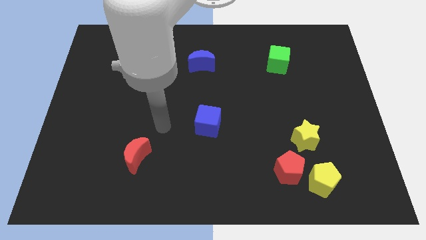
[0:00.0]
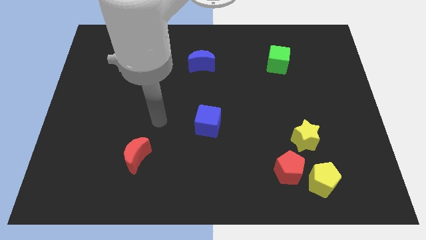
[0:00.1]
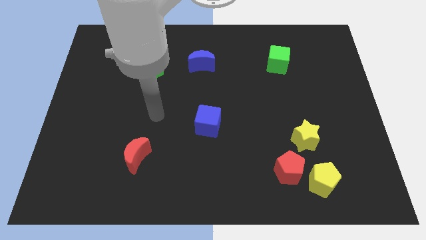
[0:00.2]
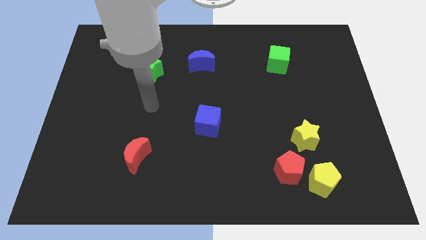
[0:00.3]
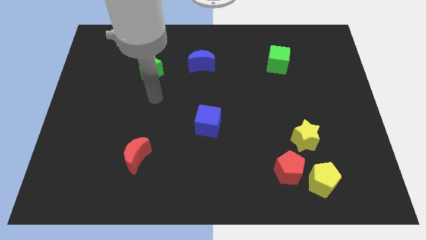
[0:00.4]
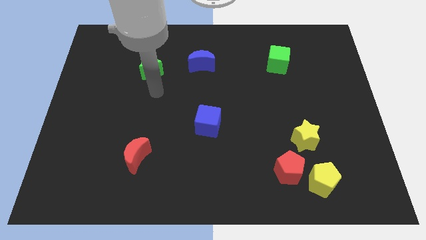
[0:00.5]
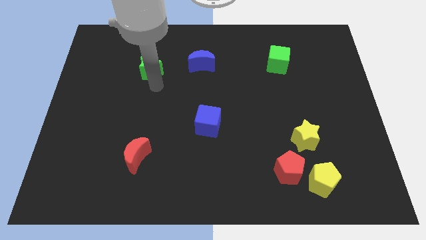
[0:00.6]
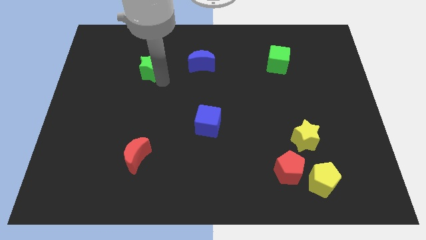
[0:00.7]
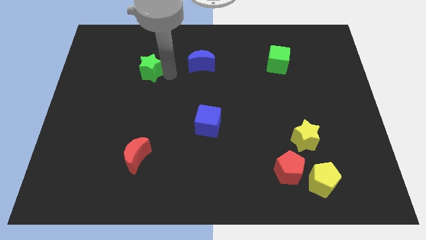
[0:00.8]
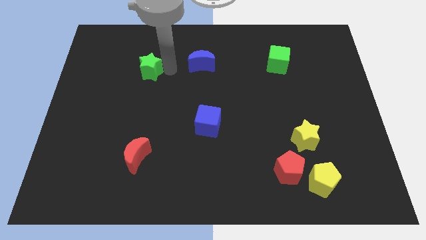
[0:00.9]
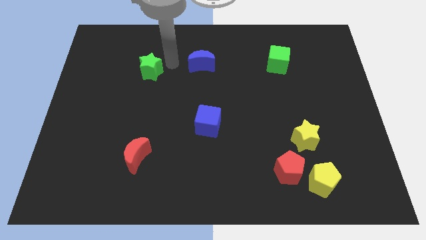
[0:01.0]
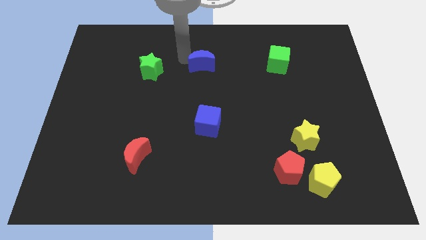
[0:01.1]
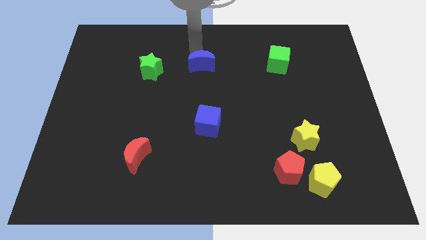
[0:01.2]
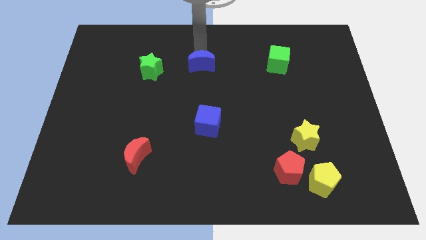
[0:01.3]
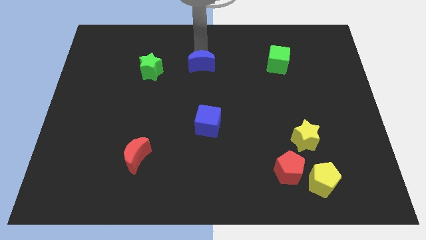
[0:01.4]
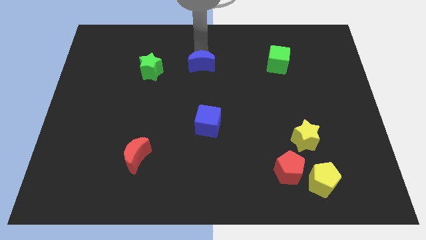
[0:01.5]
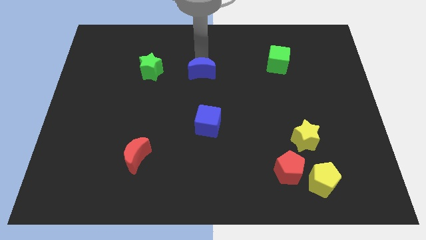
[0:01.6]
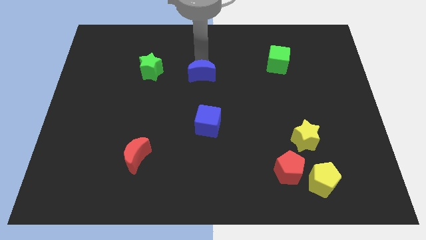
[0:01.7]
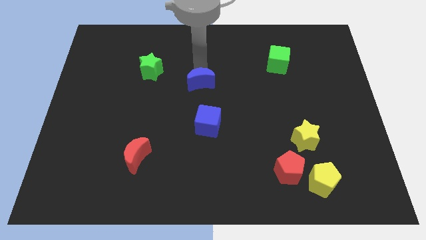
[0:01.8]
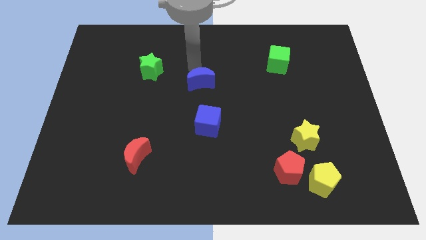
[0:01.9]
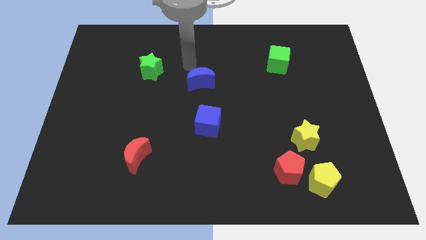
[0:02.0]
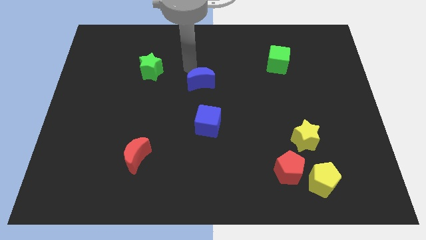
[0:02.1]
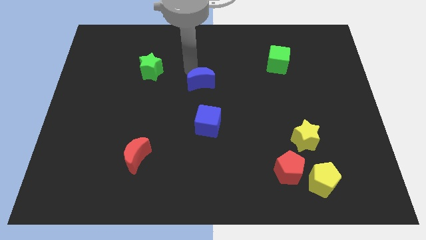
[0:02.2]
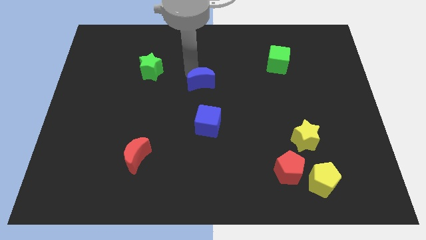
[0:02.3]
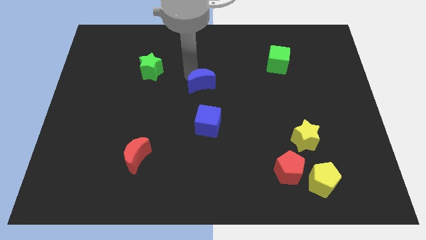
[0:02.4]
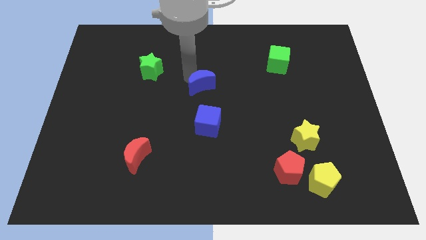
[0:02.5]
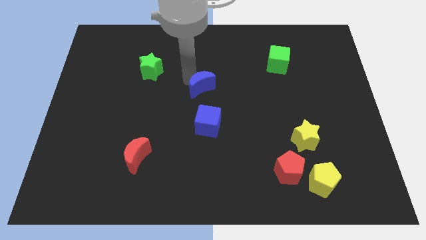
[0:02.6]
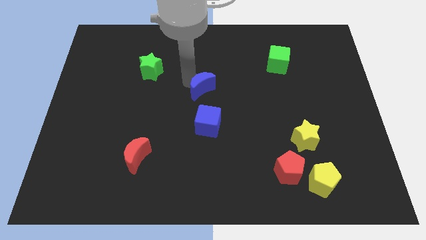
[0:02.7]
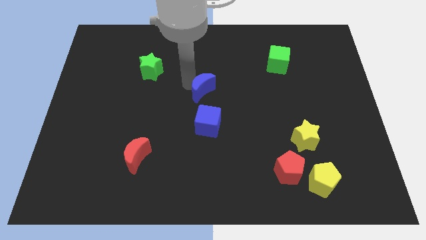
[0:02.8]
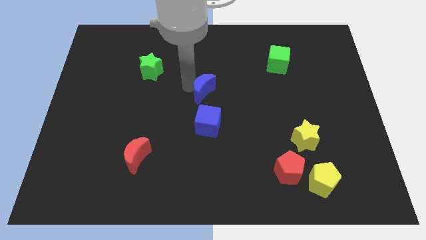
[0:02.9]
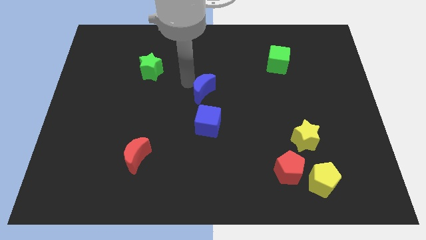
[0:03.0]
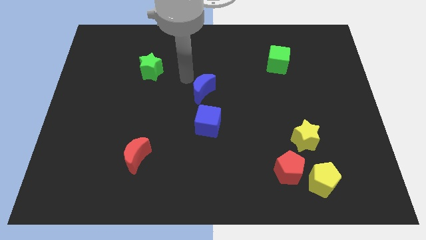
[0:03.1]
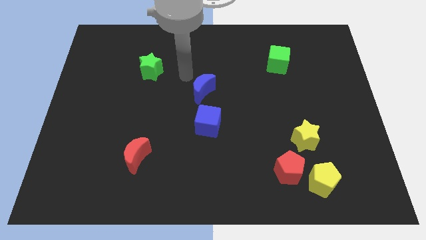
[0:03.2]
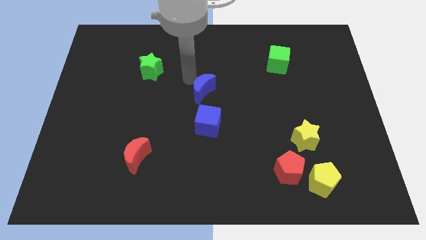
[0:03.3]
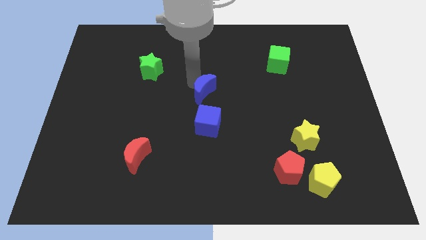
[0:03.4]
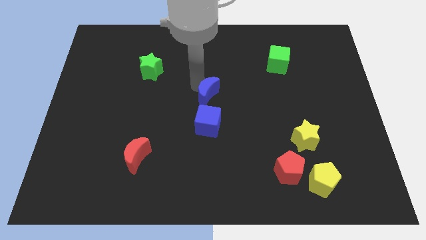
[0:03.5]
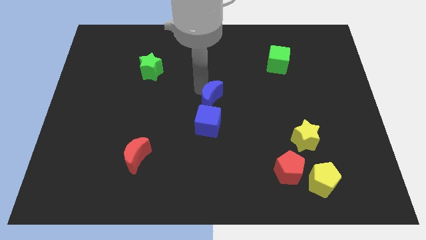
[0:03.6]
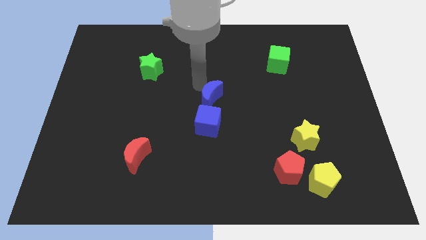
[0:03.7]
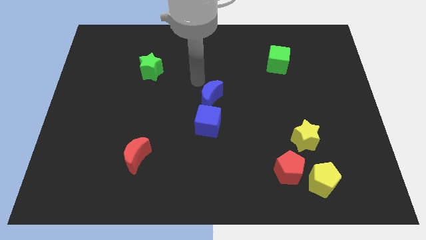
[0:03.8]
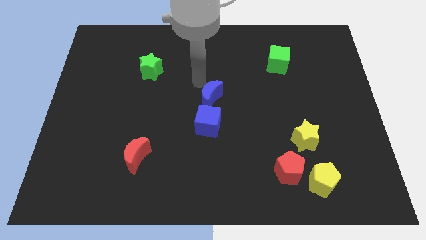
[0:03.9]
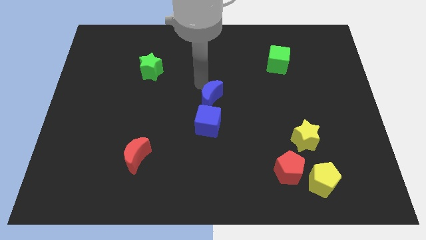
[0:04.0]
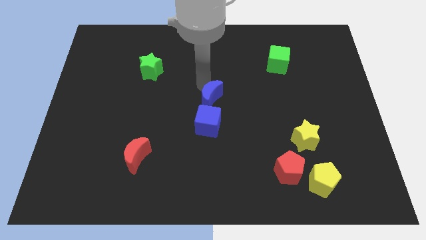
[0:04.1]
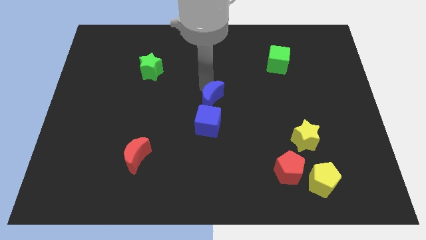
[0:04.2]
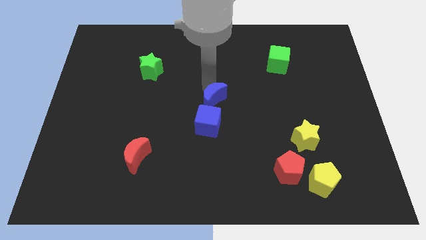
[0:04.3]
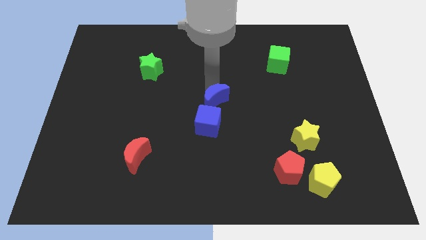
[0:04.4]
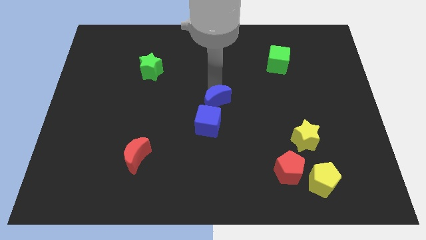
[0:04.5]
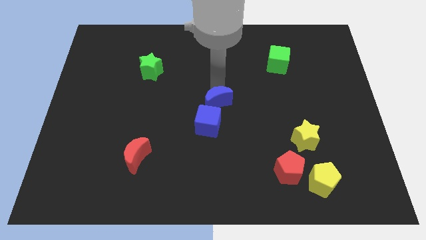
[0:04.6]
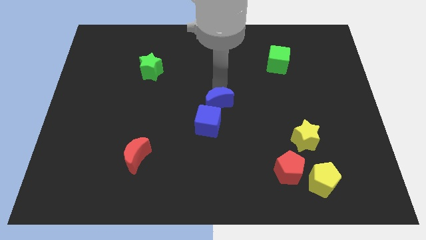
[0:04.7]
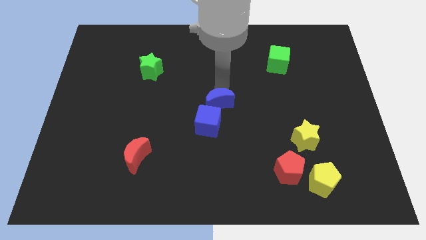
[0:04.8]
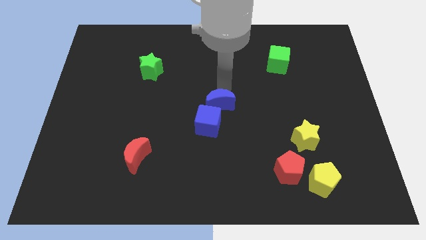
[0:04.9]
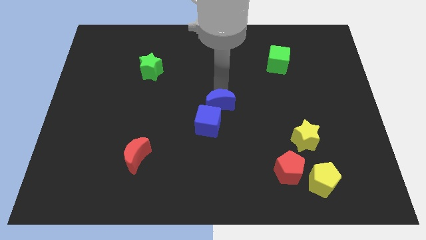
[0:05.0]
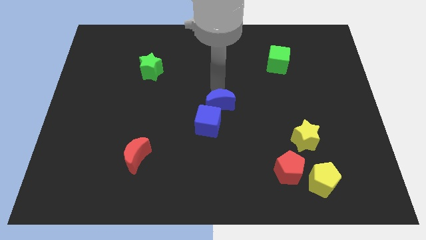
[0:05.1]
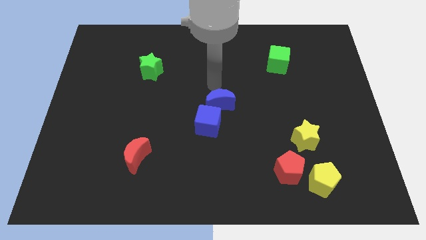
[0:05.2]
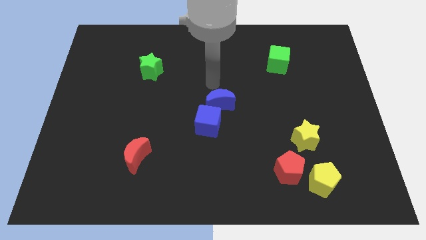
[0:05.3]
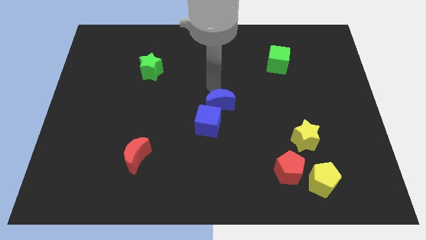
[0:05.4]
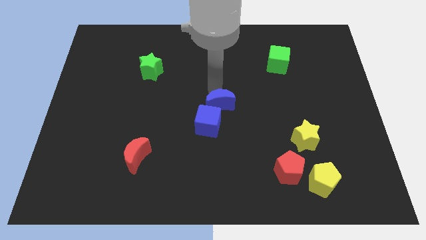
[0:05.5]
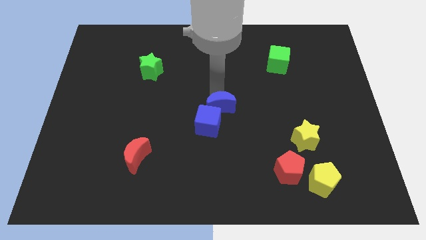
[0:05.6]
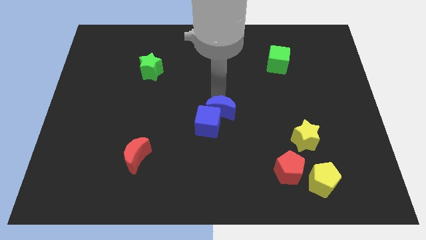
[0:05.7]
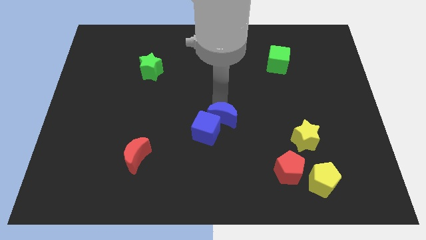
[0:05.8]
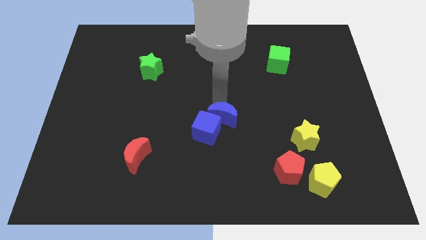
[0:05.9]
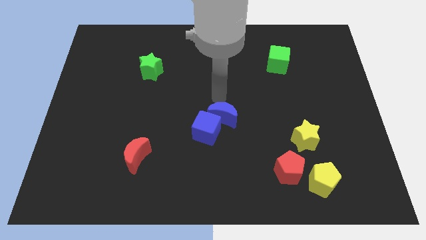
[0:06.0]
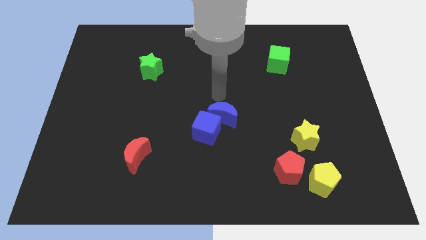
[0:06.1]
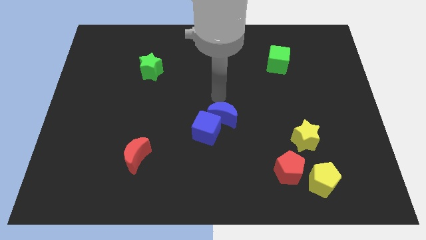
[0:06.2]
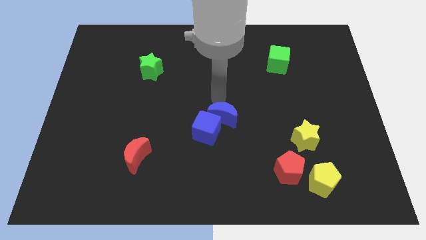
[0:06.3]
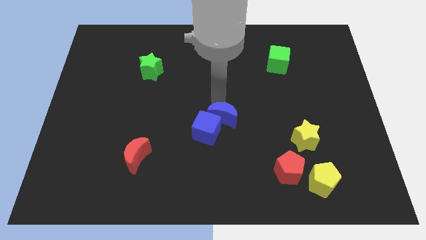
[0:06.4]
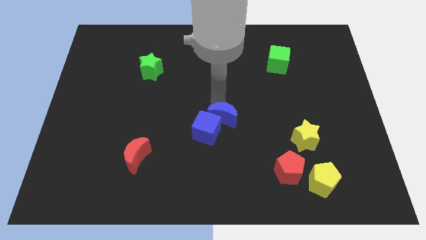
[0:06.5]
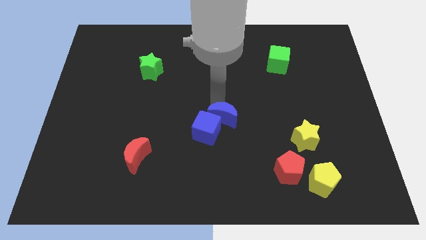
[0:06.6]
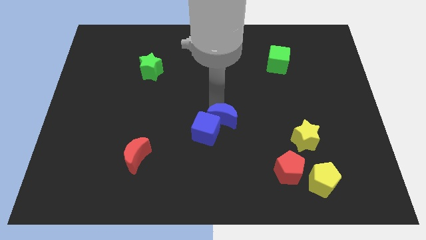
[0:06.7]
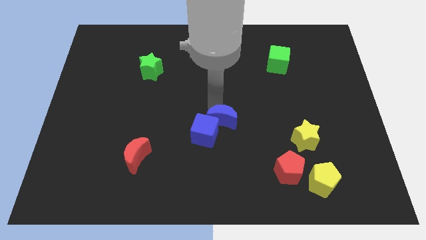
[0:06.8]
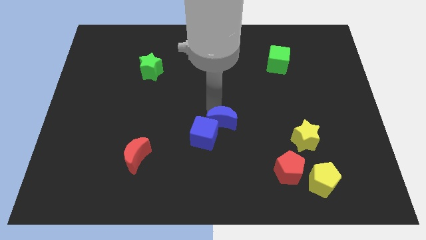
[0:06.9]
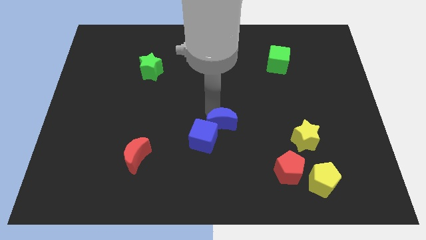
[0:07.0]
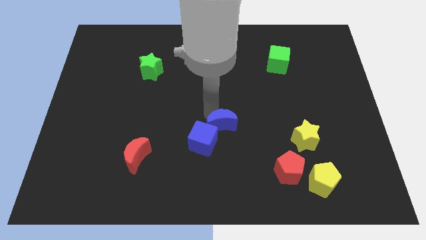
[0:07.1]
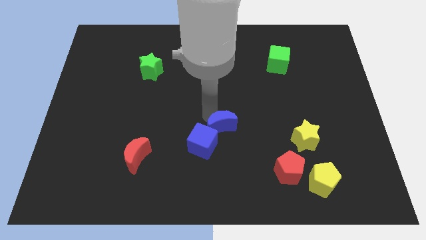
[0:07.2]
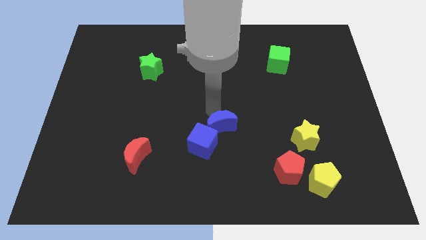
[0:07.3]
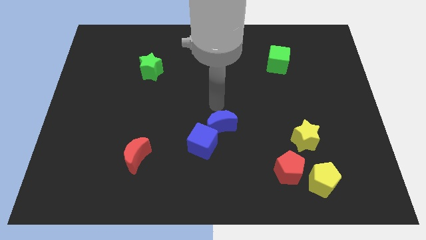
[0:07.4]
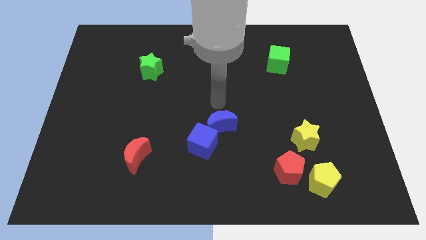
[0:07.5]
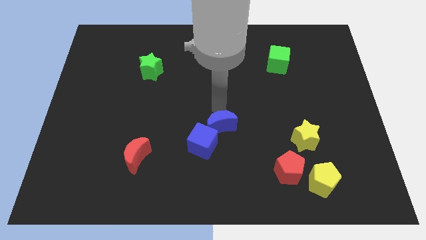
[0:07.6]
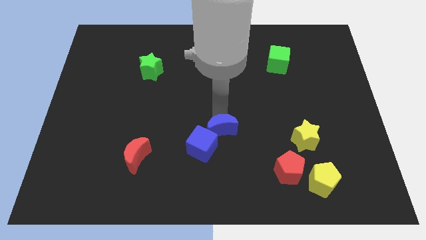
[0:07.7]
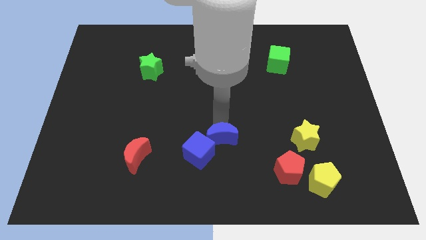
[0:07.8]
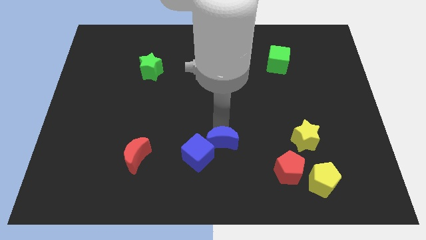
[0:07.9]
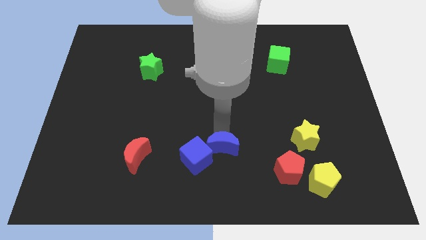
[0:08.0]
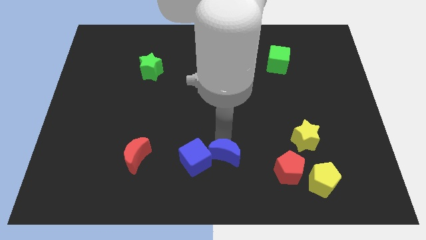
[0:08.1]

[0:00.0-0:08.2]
move the blue moon to the bottom side
